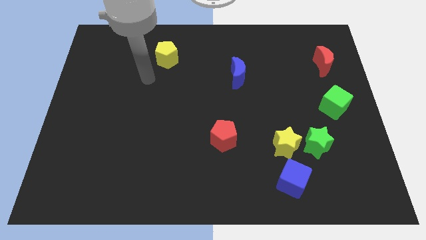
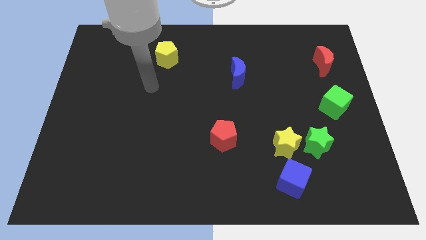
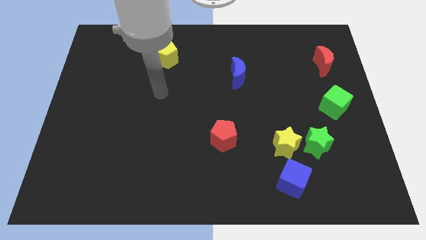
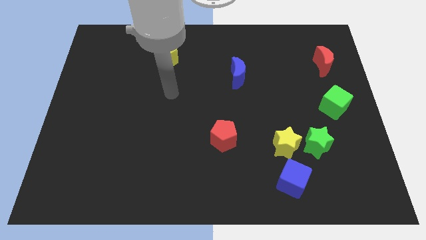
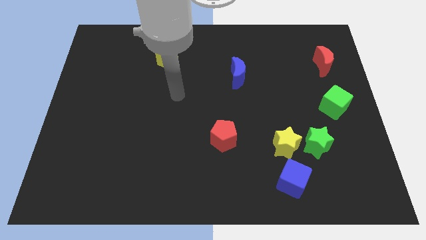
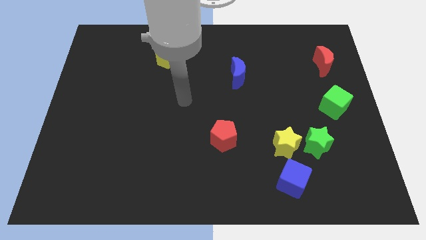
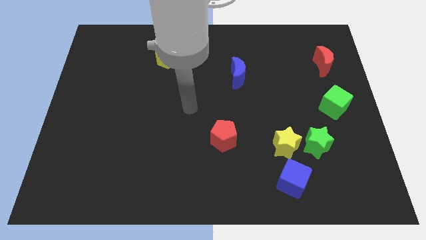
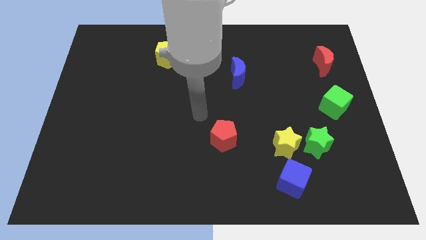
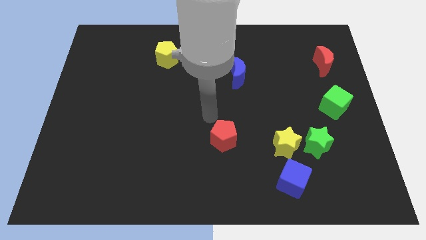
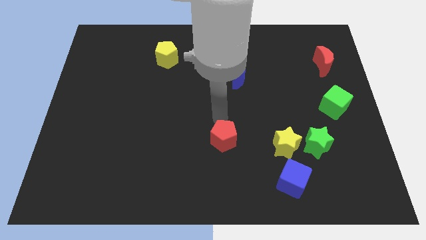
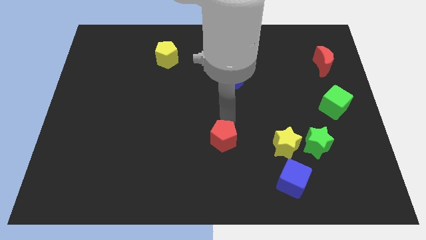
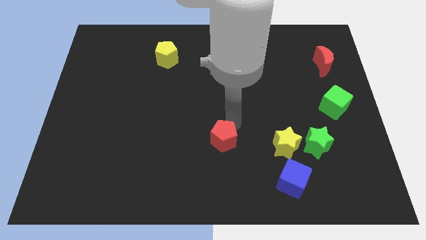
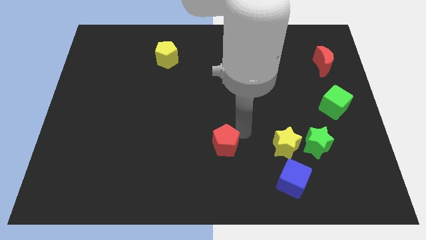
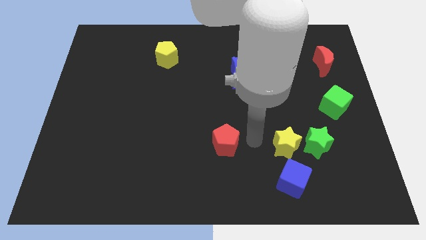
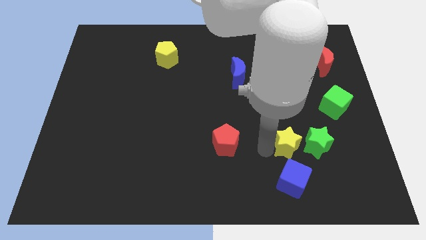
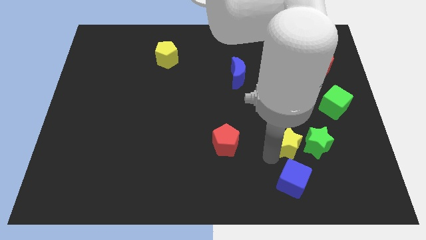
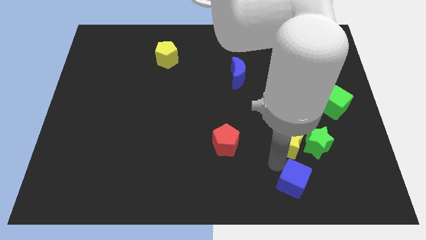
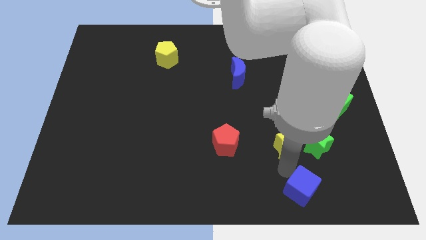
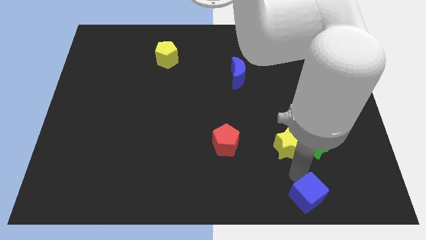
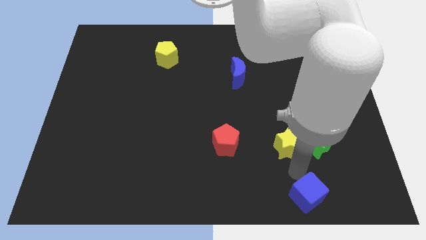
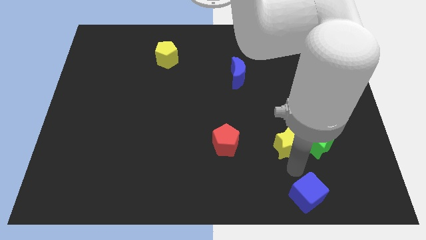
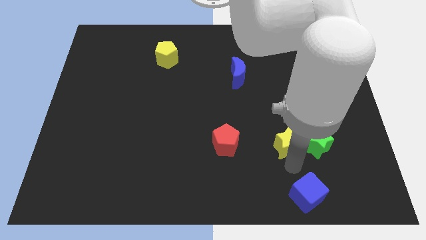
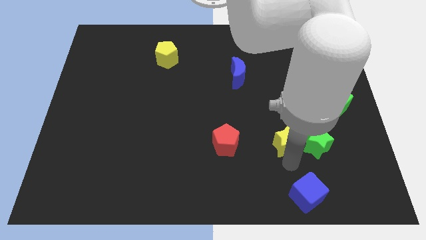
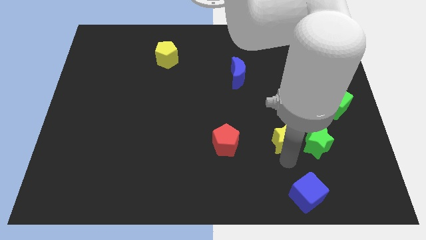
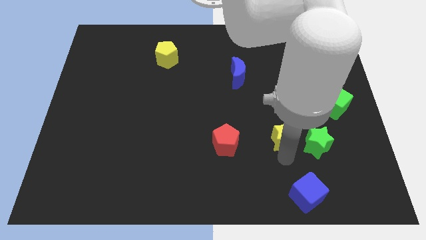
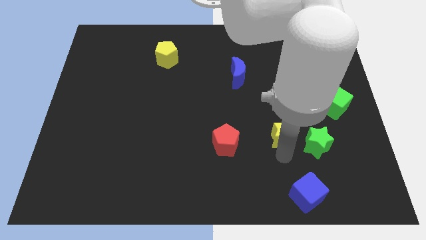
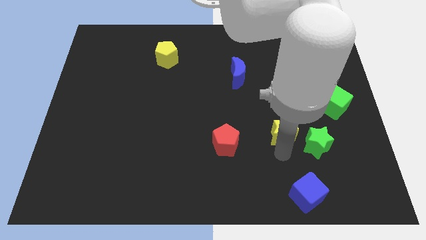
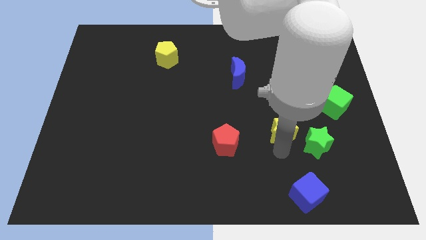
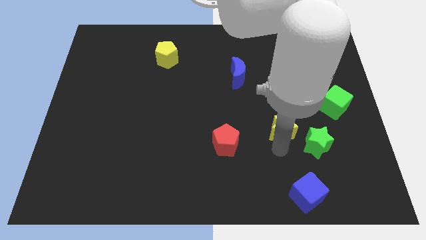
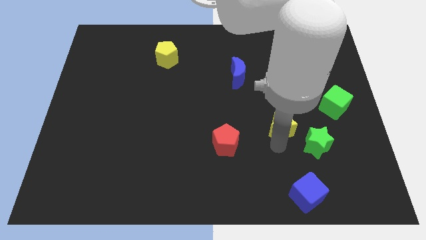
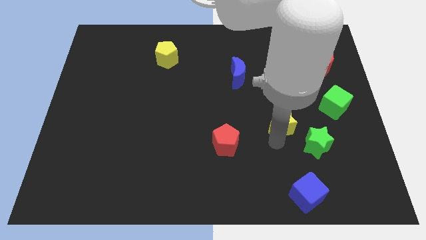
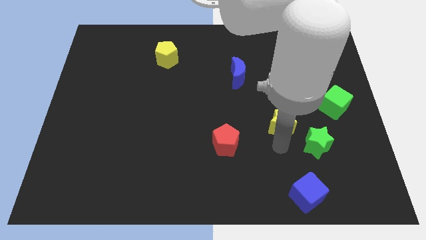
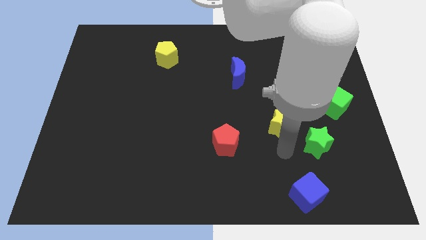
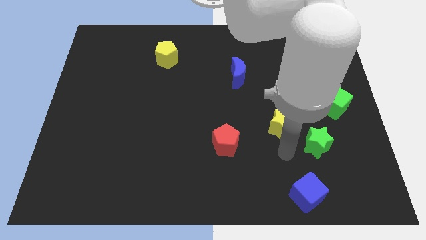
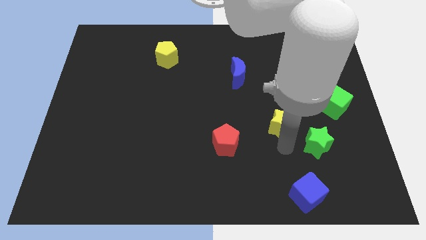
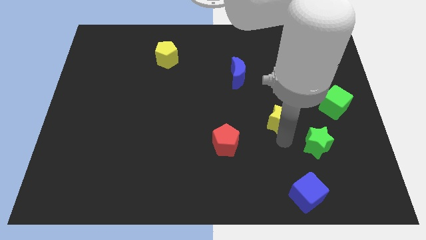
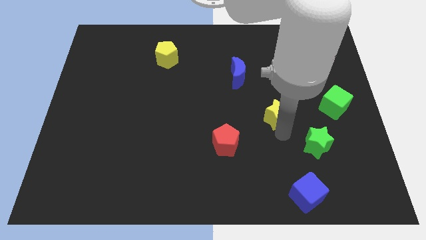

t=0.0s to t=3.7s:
slightly slide the yellow star upwards

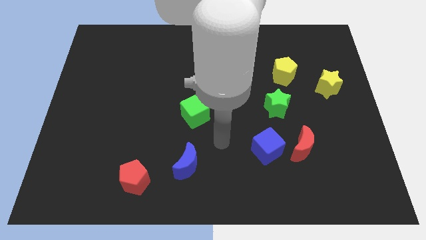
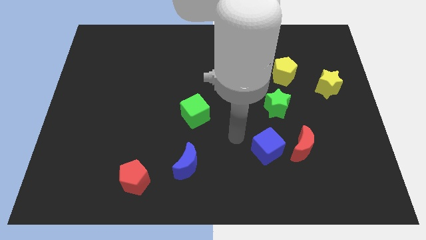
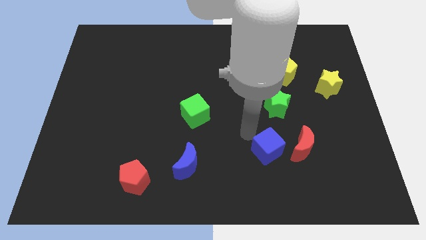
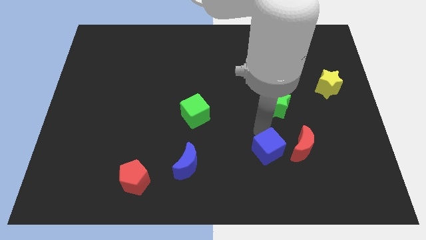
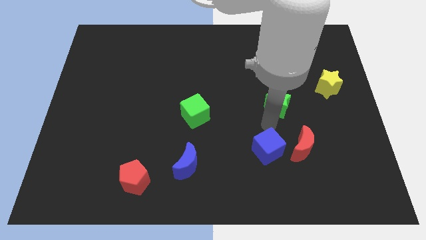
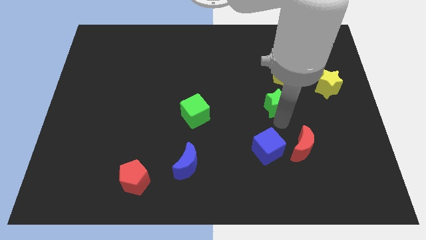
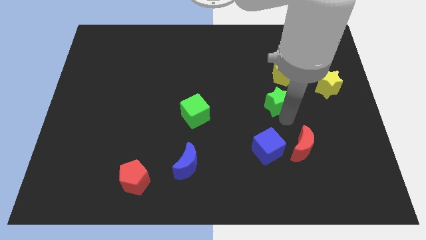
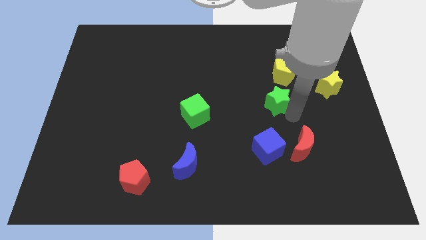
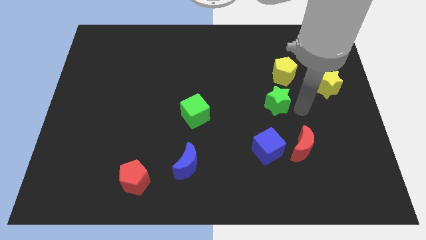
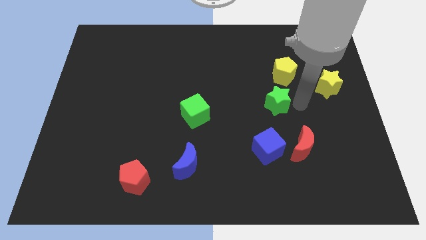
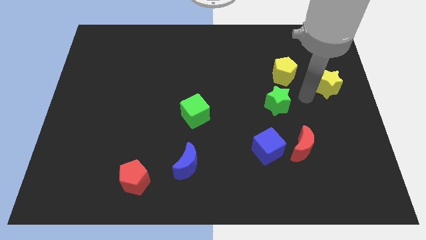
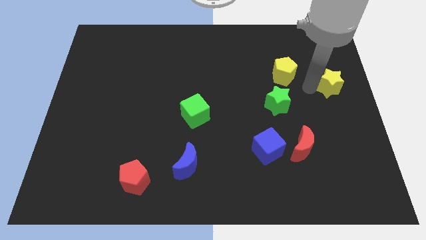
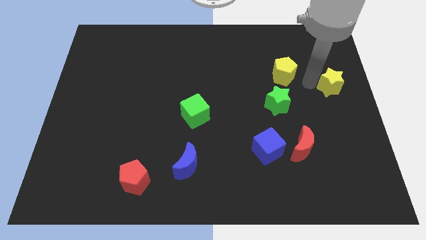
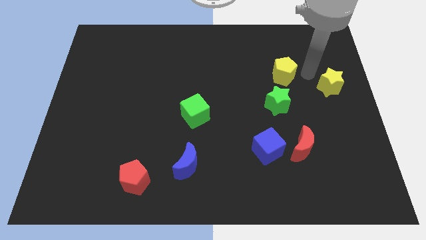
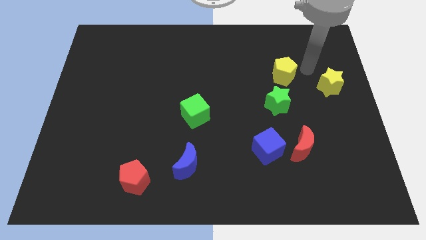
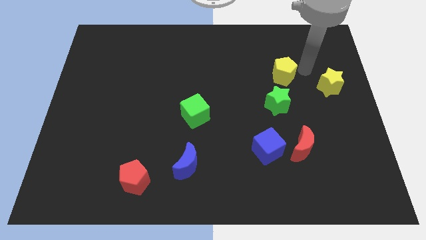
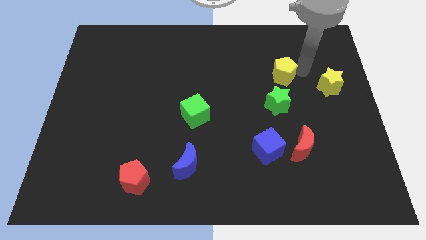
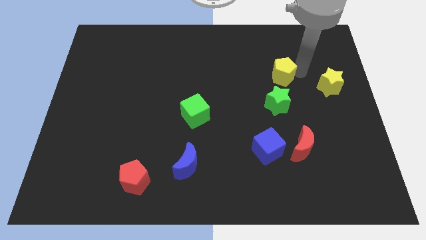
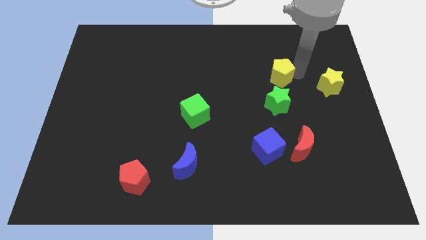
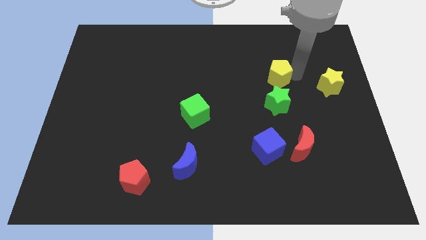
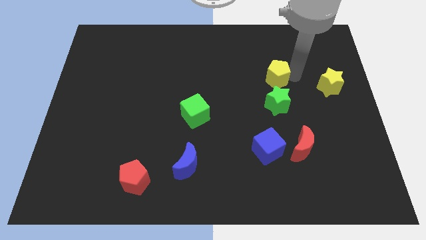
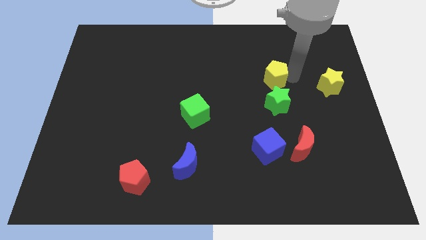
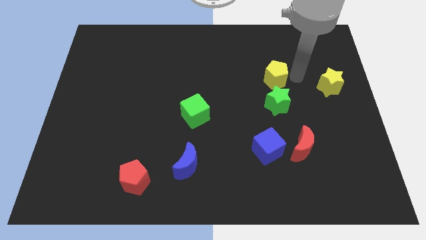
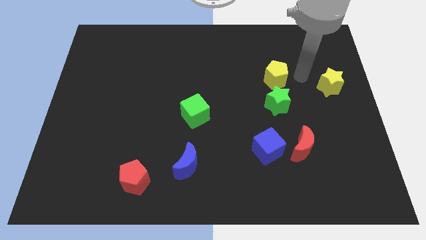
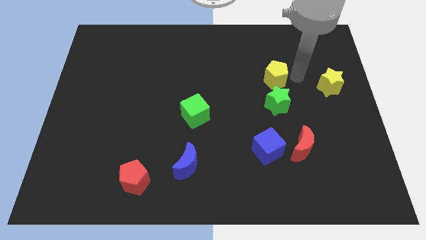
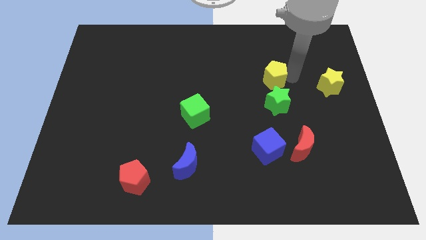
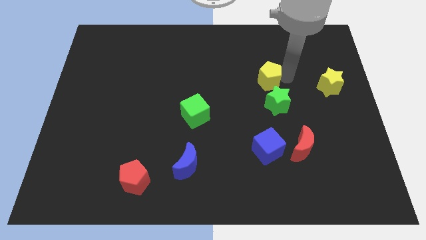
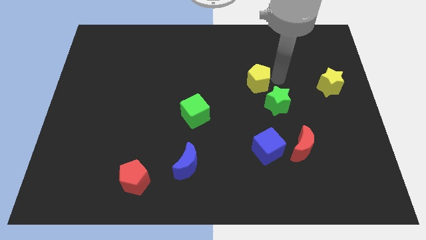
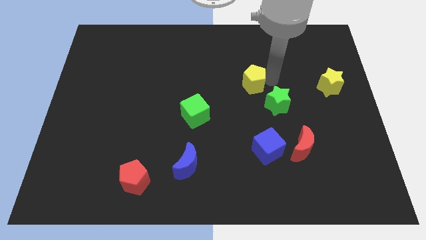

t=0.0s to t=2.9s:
move the yellow pentagon a little bit to the left

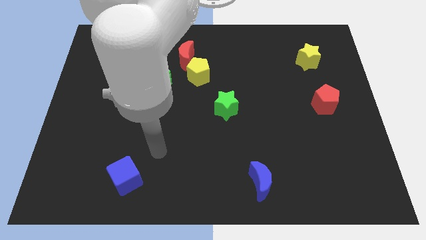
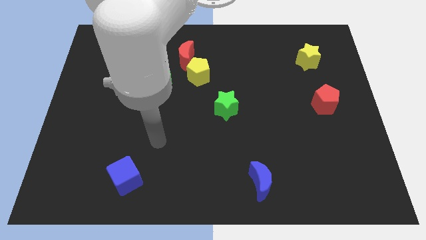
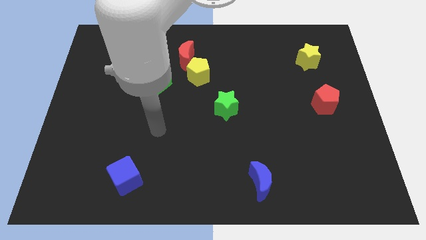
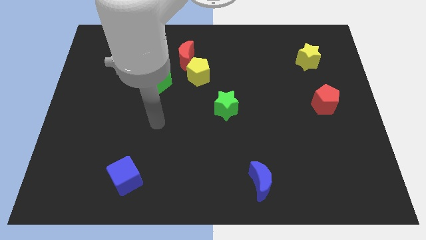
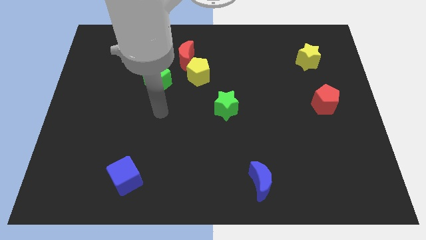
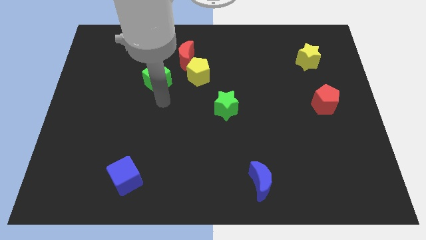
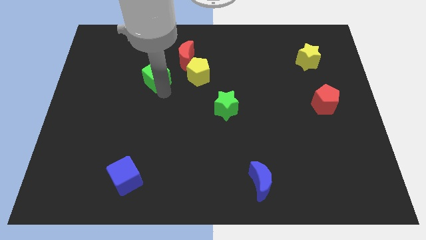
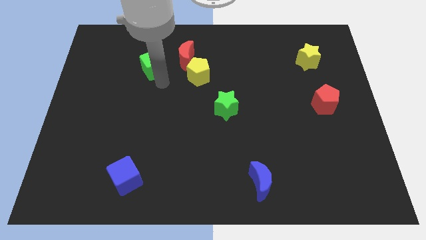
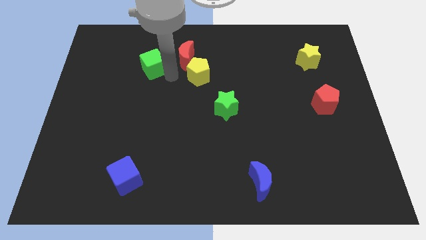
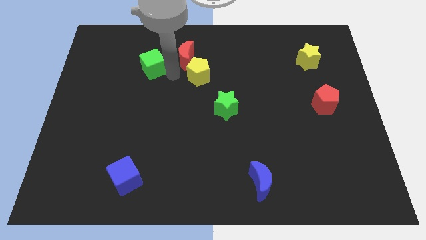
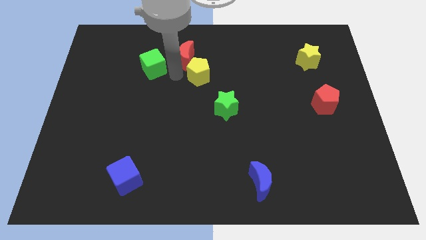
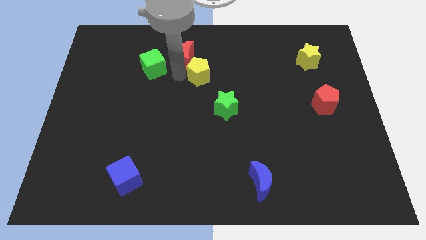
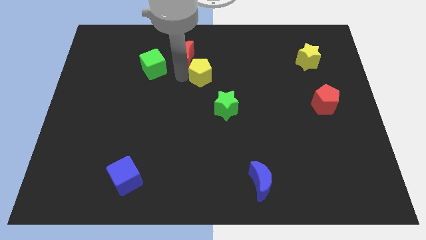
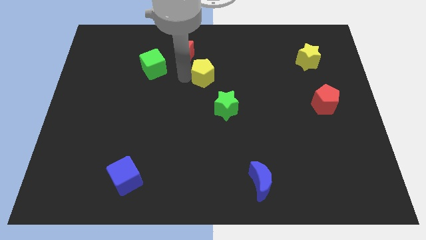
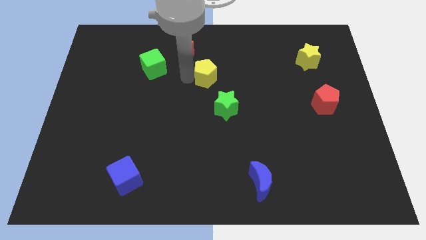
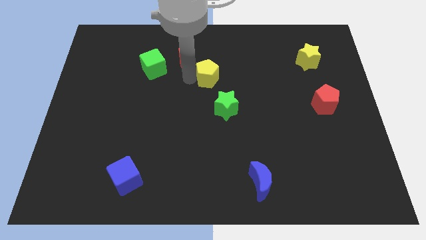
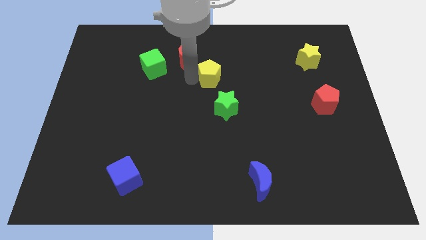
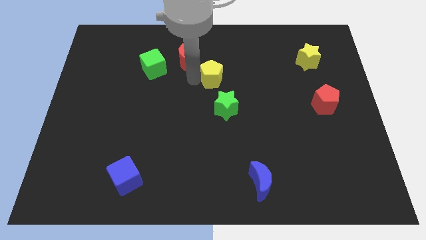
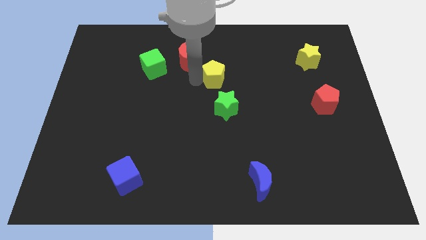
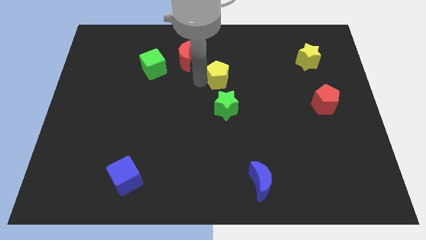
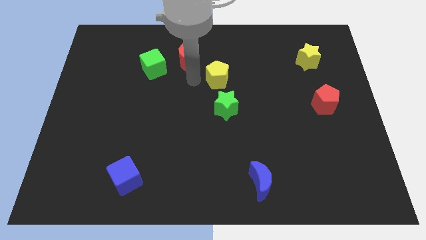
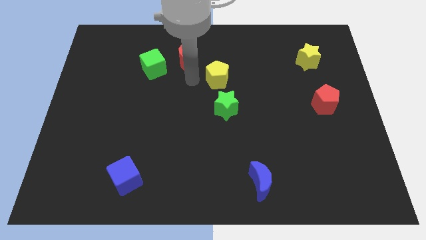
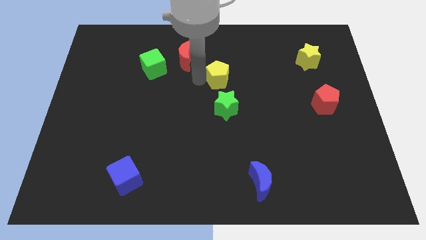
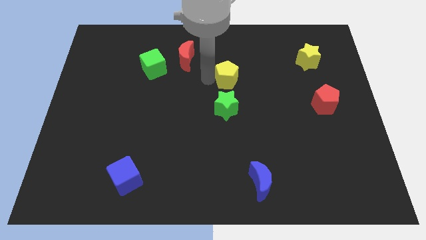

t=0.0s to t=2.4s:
slide the yellow pentagon somewhat to the right
